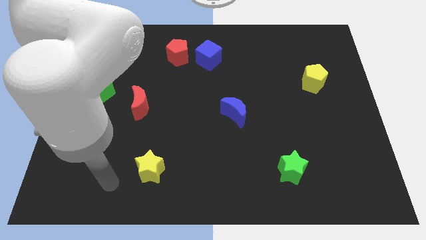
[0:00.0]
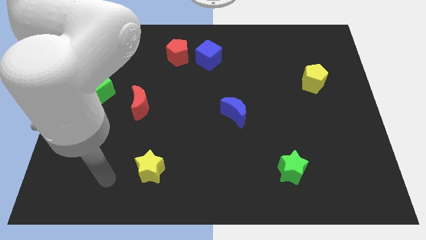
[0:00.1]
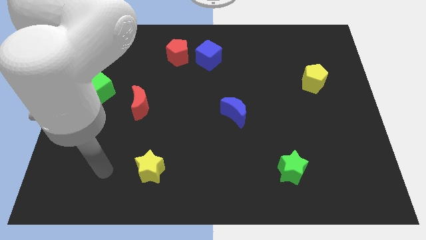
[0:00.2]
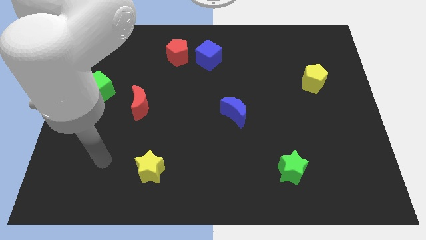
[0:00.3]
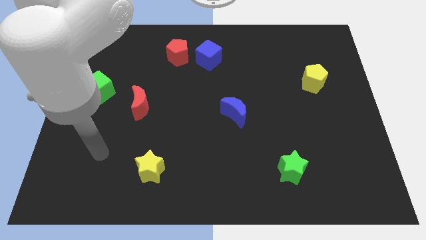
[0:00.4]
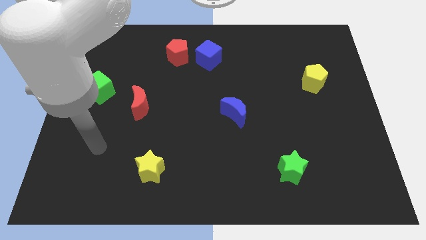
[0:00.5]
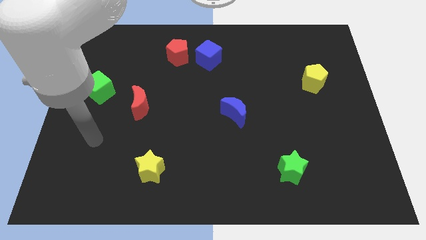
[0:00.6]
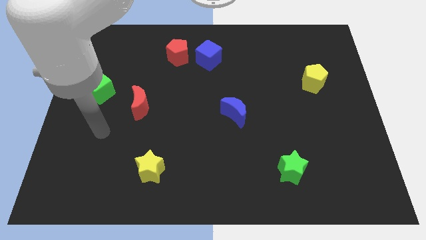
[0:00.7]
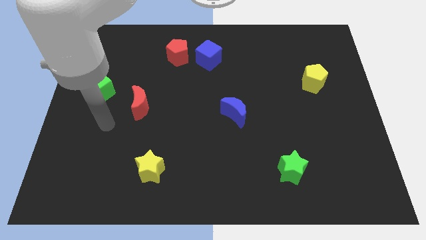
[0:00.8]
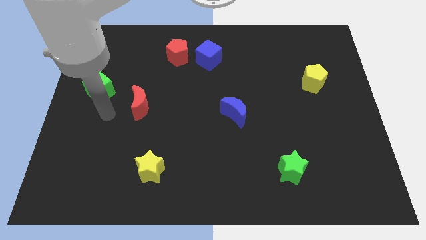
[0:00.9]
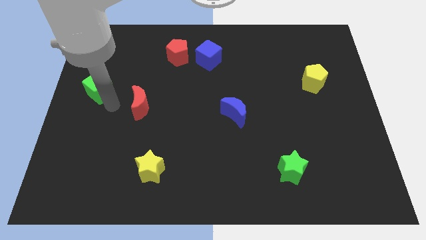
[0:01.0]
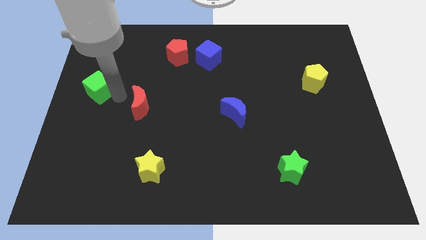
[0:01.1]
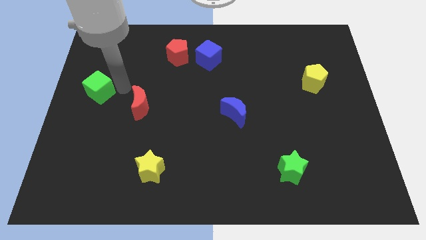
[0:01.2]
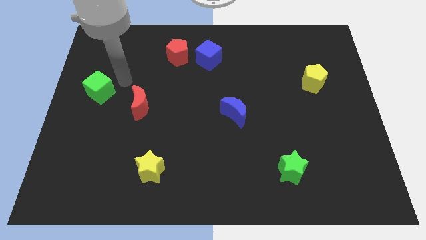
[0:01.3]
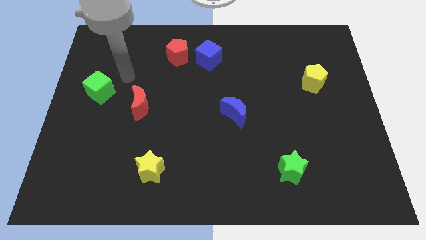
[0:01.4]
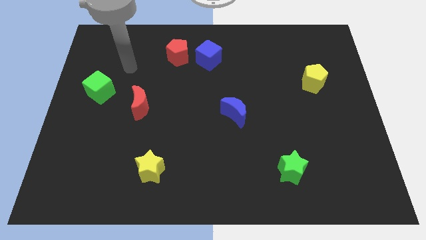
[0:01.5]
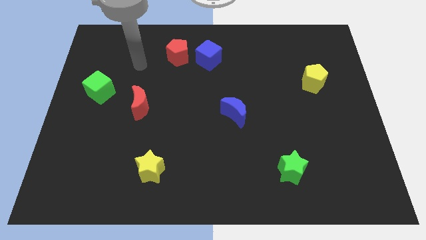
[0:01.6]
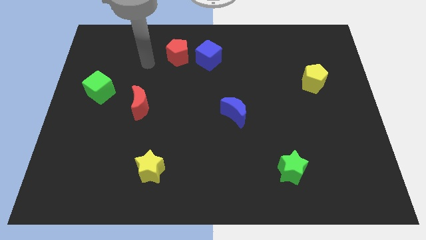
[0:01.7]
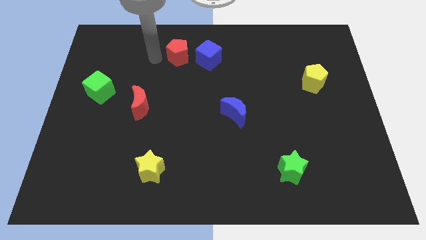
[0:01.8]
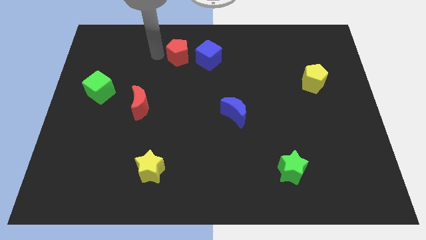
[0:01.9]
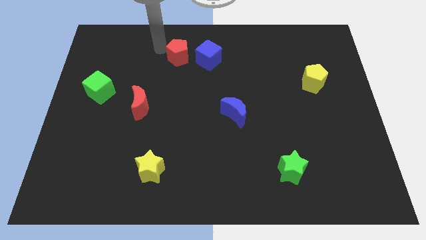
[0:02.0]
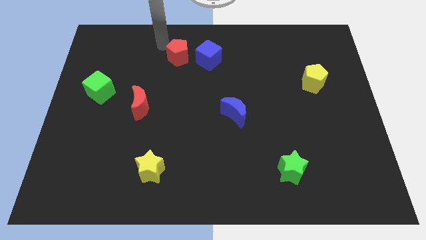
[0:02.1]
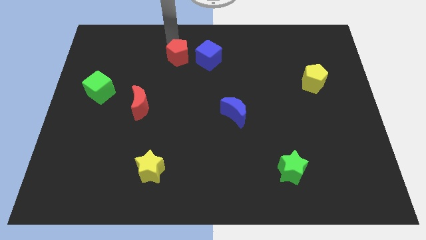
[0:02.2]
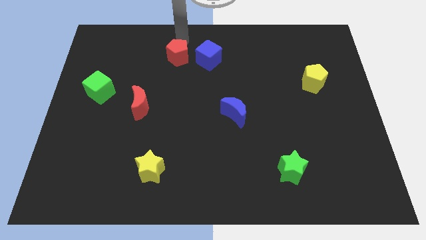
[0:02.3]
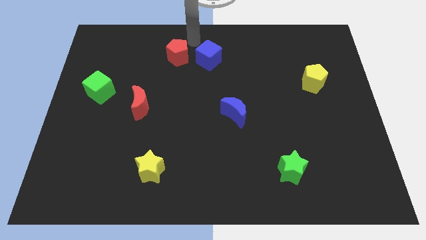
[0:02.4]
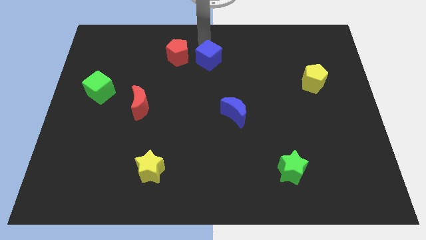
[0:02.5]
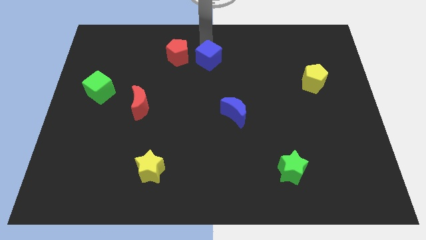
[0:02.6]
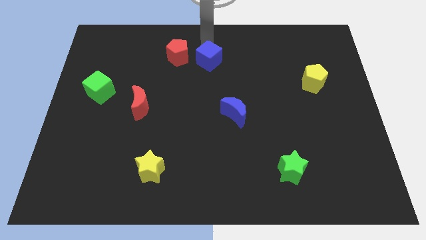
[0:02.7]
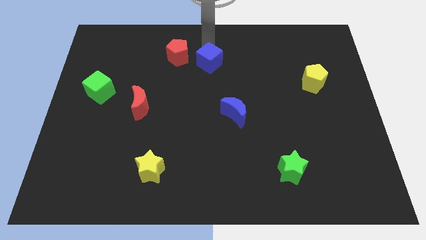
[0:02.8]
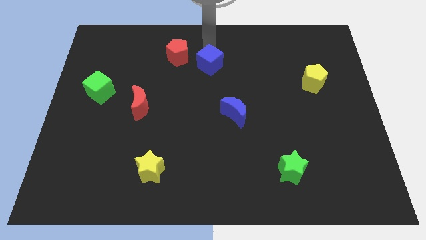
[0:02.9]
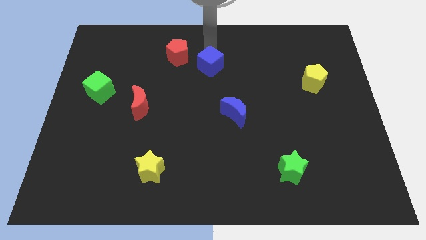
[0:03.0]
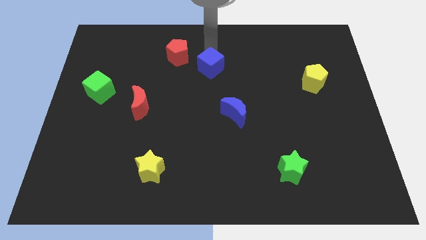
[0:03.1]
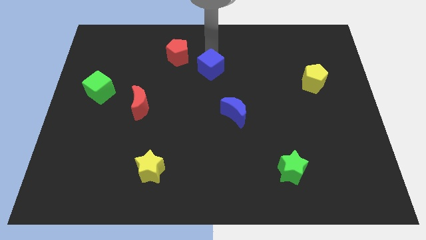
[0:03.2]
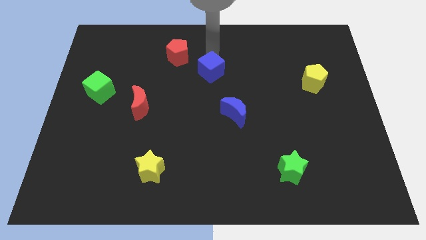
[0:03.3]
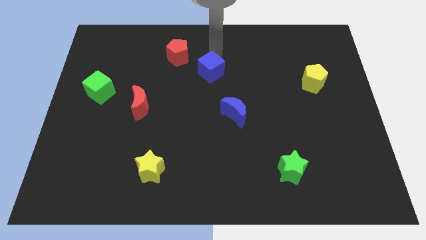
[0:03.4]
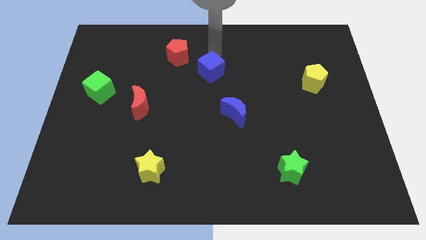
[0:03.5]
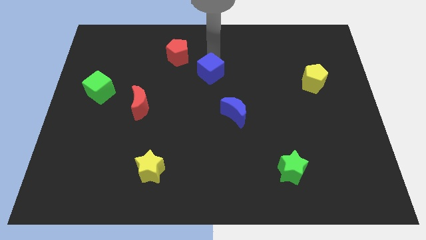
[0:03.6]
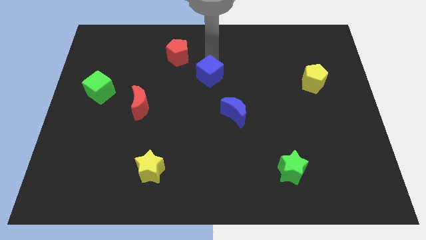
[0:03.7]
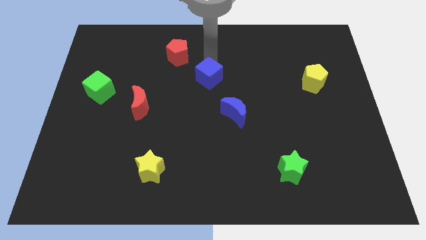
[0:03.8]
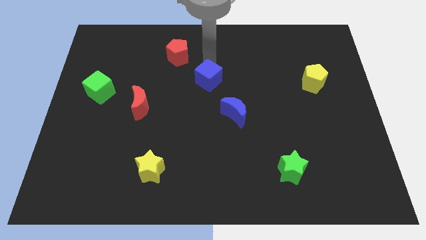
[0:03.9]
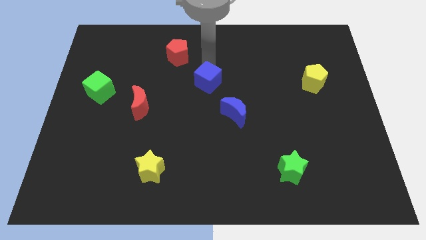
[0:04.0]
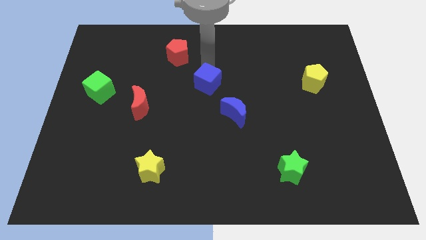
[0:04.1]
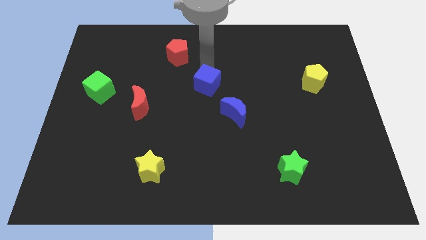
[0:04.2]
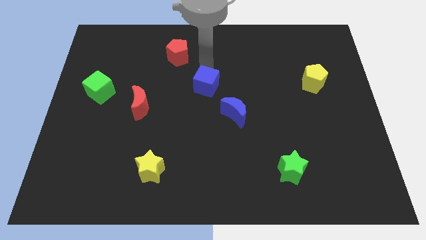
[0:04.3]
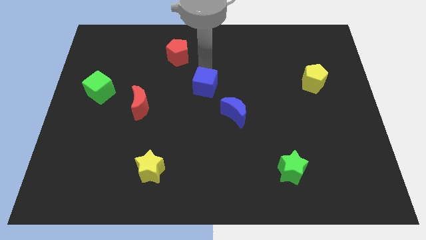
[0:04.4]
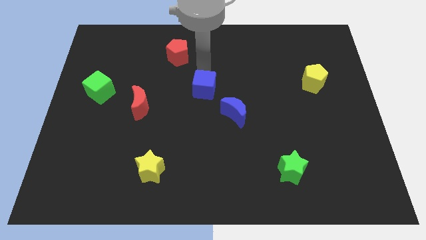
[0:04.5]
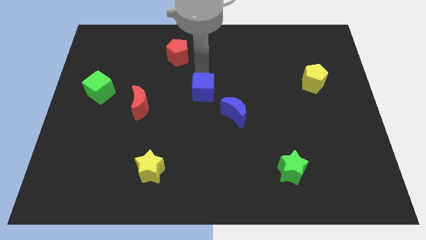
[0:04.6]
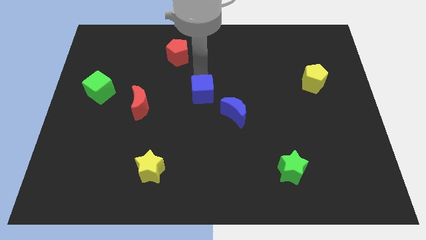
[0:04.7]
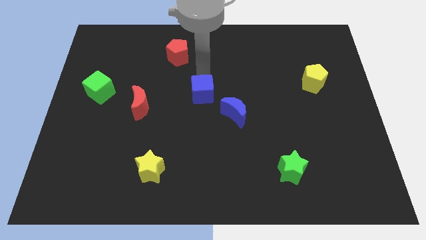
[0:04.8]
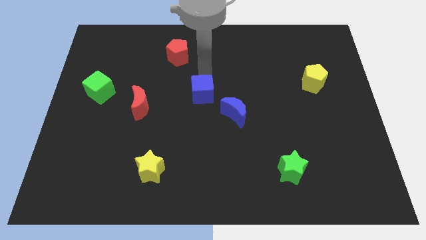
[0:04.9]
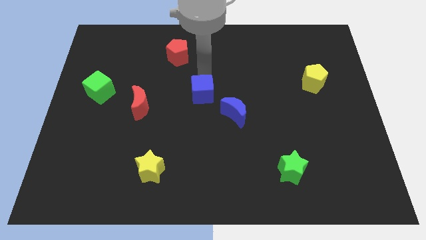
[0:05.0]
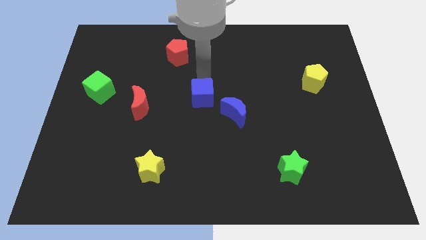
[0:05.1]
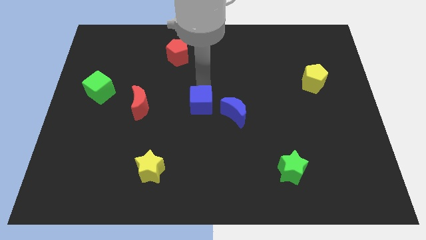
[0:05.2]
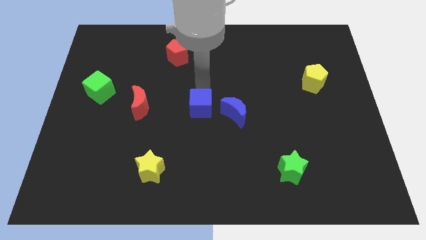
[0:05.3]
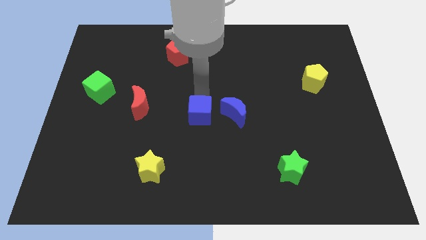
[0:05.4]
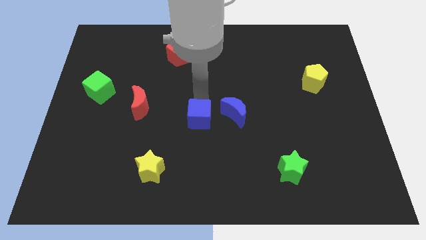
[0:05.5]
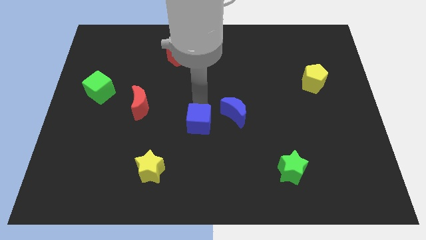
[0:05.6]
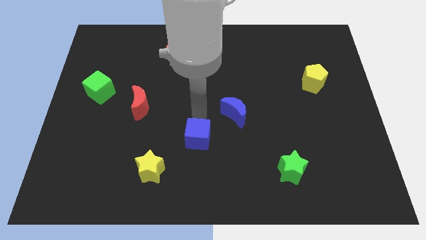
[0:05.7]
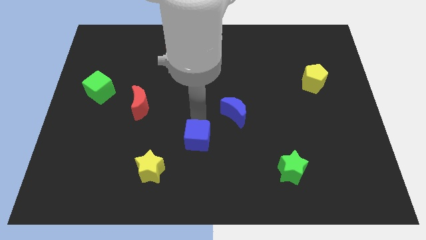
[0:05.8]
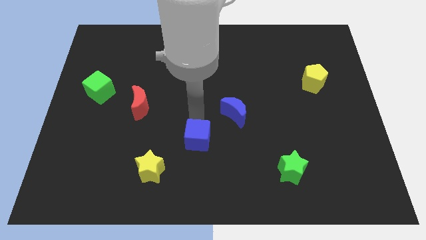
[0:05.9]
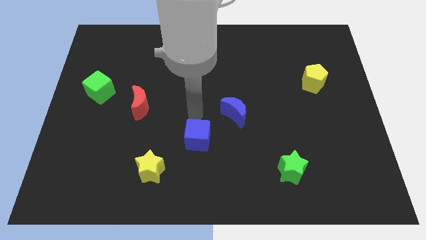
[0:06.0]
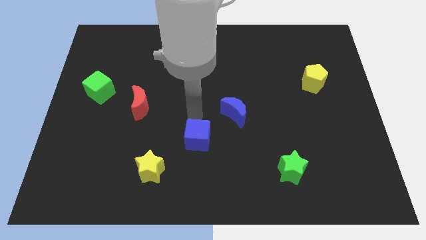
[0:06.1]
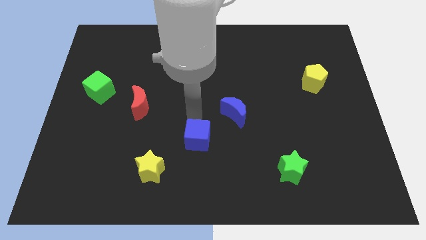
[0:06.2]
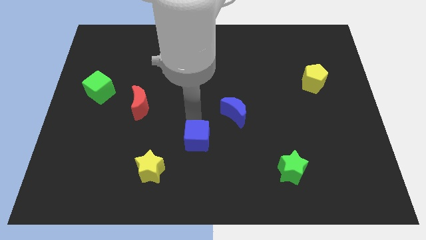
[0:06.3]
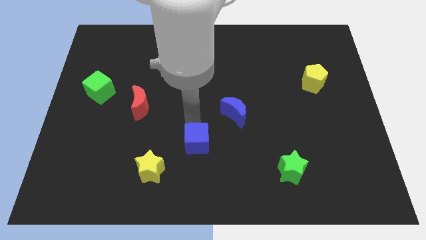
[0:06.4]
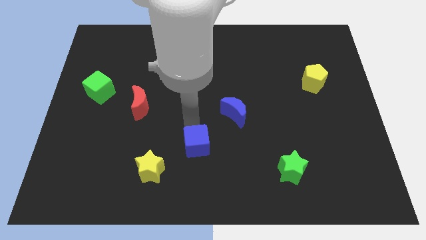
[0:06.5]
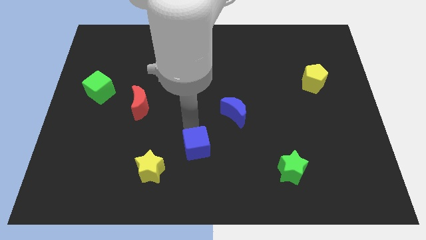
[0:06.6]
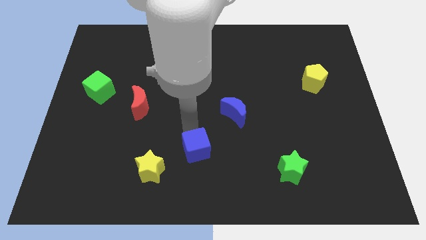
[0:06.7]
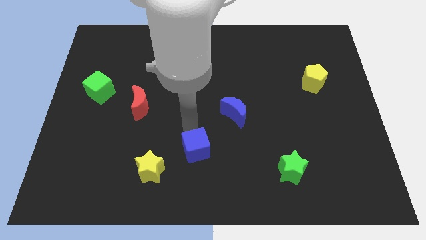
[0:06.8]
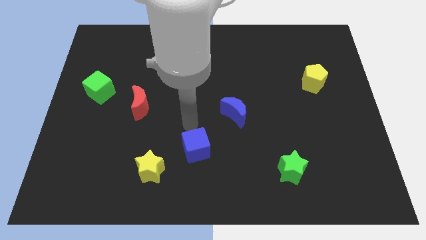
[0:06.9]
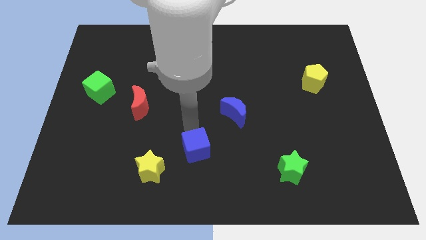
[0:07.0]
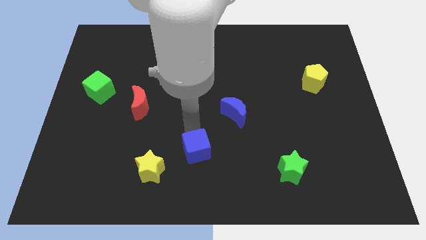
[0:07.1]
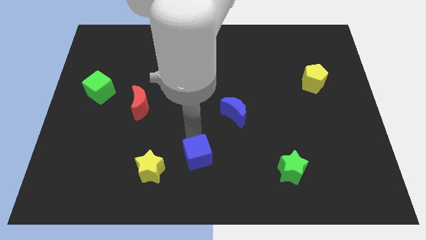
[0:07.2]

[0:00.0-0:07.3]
slide the blue cube to the bottom
